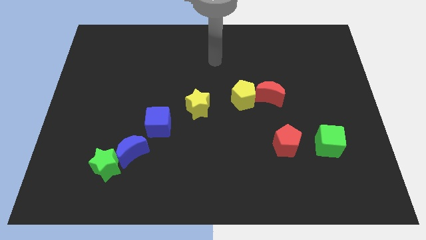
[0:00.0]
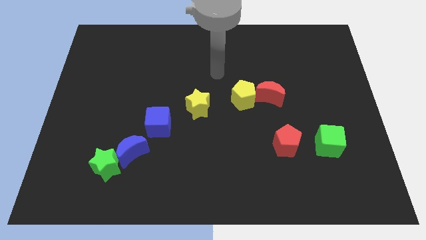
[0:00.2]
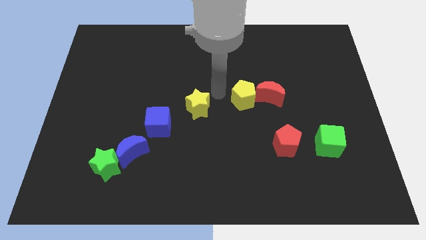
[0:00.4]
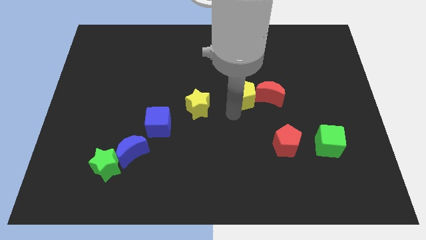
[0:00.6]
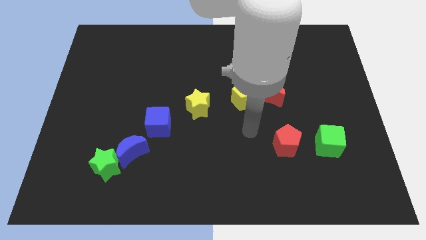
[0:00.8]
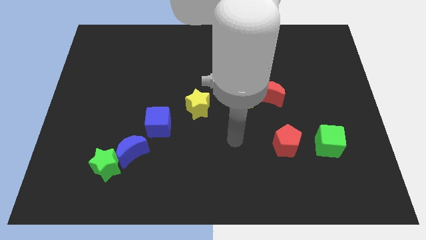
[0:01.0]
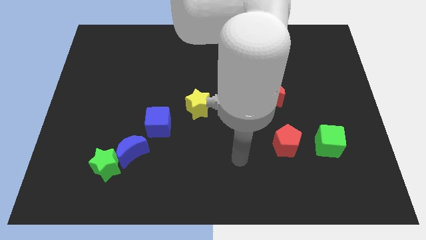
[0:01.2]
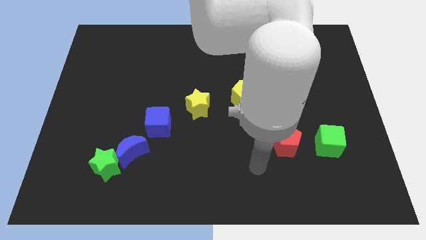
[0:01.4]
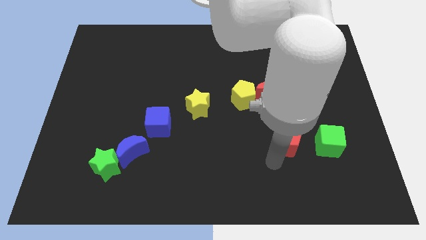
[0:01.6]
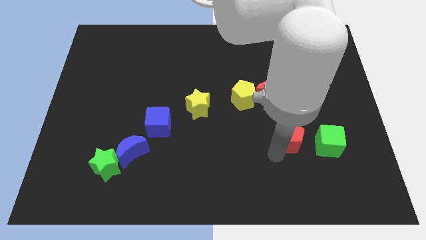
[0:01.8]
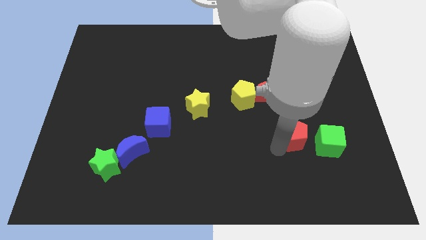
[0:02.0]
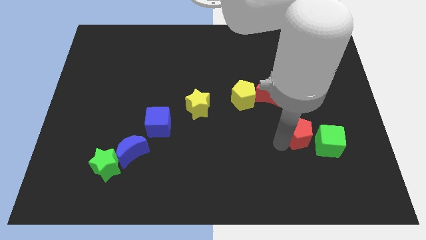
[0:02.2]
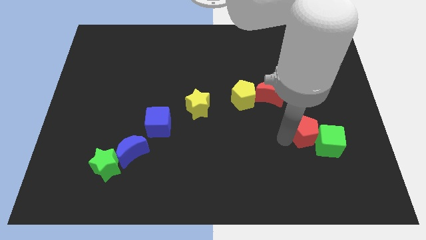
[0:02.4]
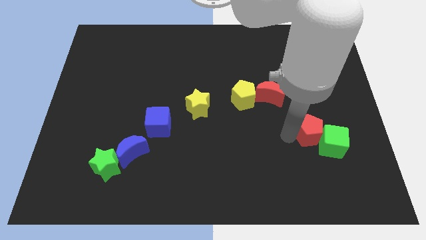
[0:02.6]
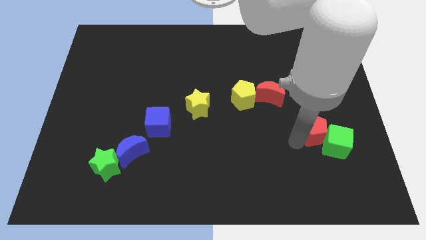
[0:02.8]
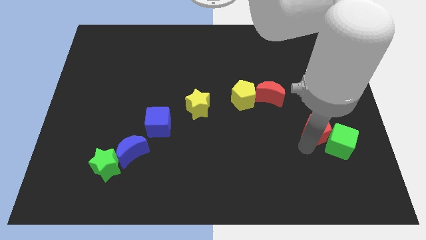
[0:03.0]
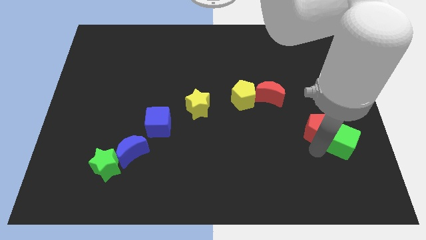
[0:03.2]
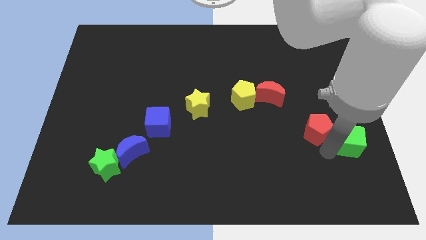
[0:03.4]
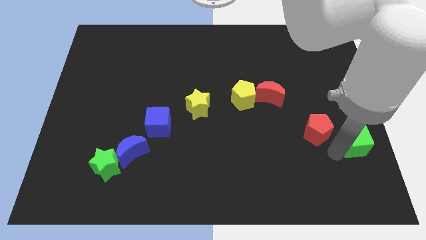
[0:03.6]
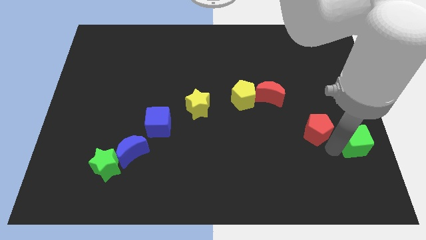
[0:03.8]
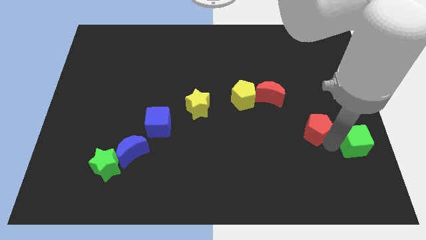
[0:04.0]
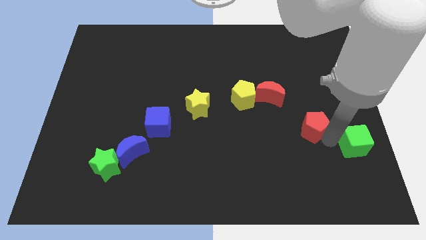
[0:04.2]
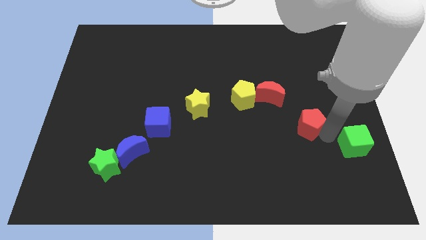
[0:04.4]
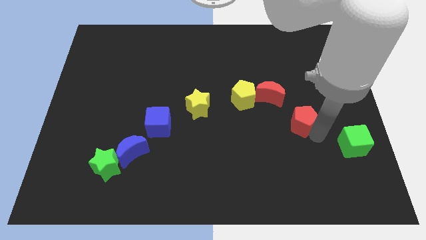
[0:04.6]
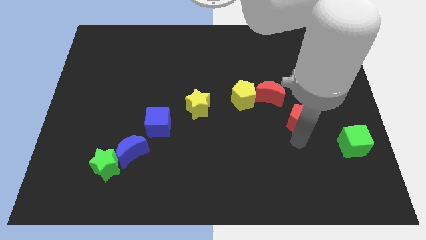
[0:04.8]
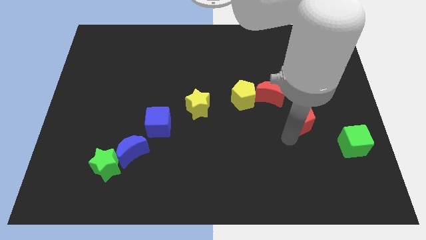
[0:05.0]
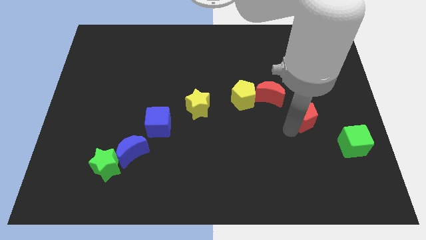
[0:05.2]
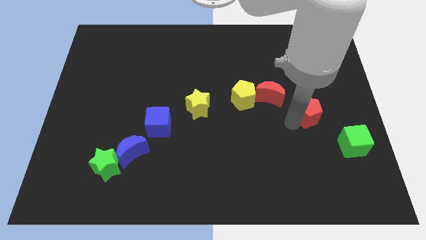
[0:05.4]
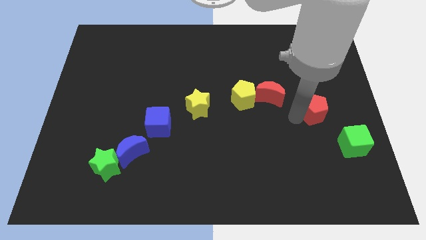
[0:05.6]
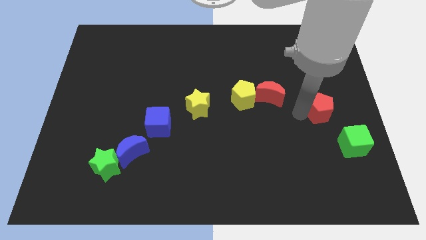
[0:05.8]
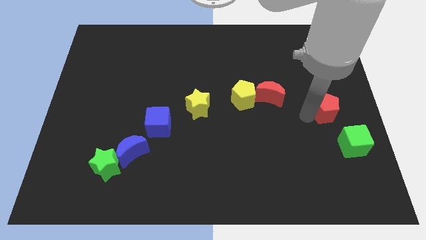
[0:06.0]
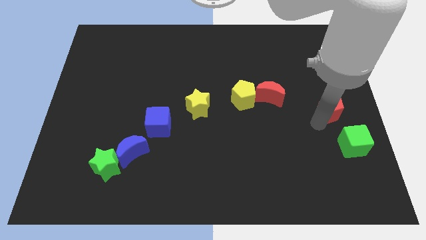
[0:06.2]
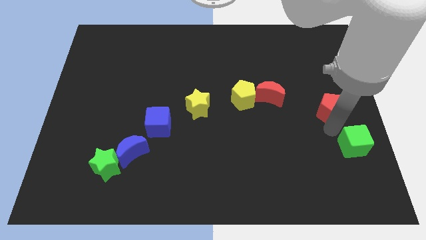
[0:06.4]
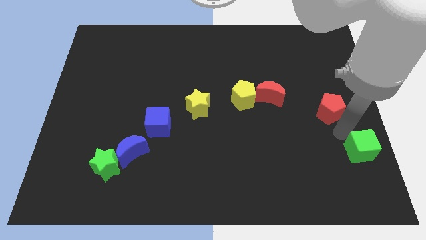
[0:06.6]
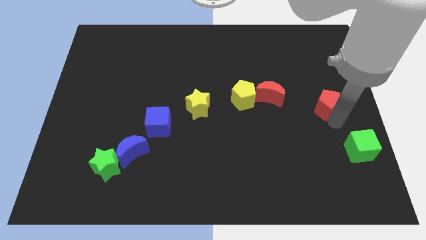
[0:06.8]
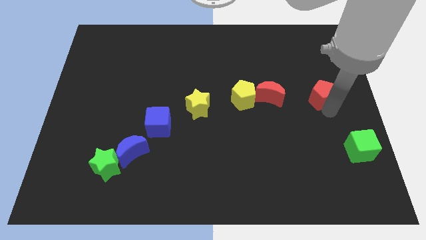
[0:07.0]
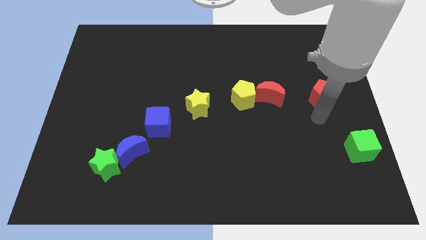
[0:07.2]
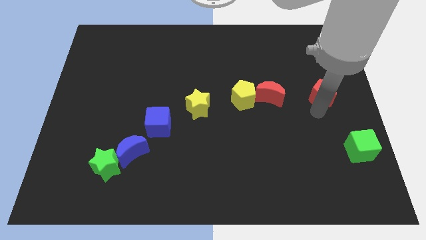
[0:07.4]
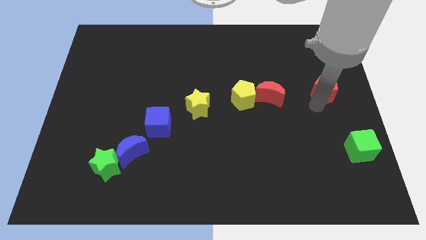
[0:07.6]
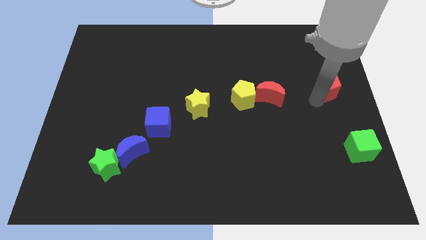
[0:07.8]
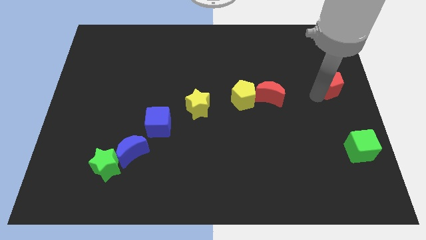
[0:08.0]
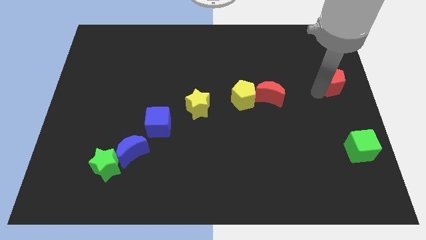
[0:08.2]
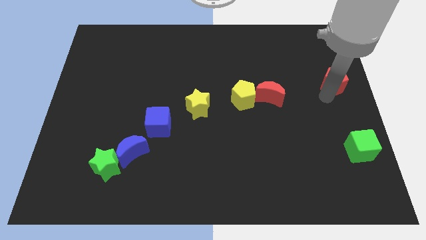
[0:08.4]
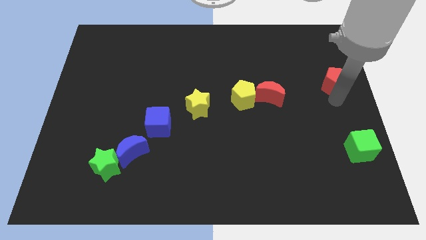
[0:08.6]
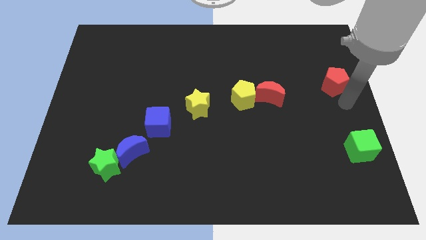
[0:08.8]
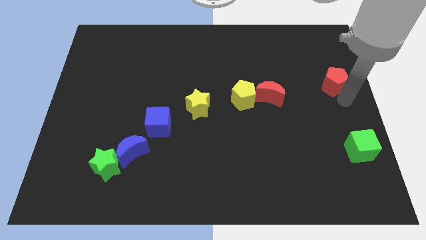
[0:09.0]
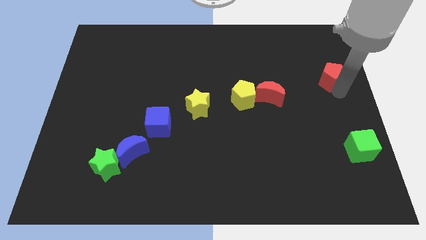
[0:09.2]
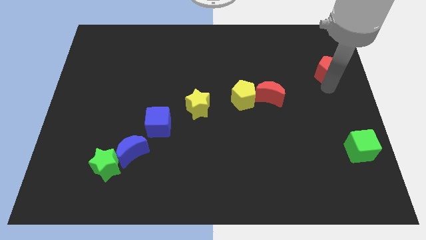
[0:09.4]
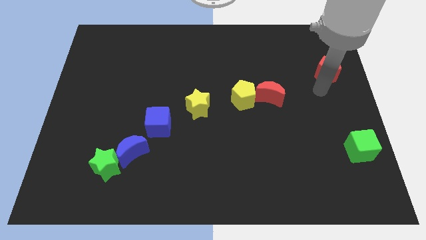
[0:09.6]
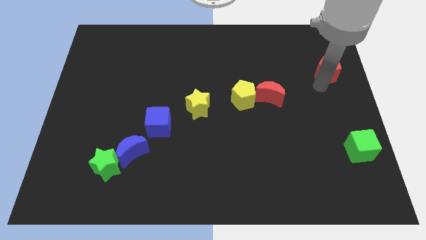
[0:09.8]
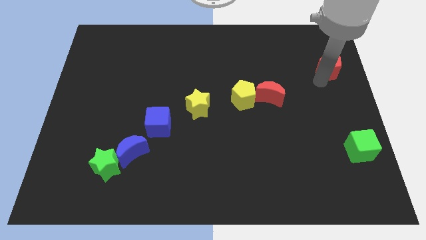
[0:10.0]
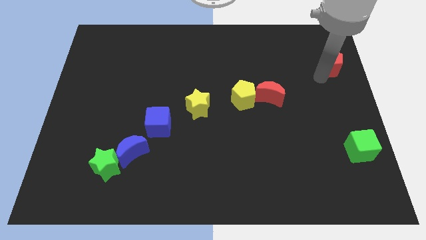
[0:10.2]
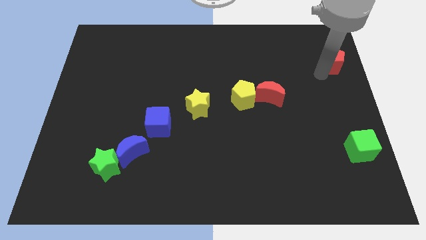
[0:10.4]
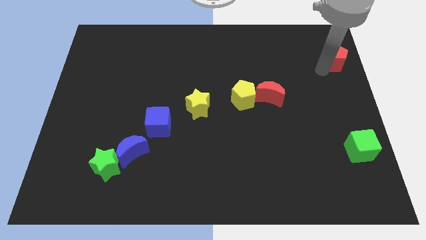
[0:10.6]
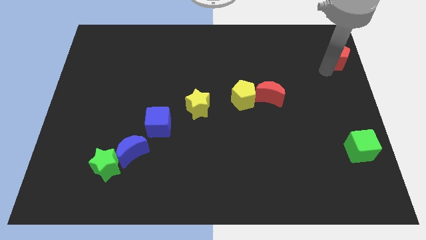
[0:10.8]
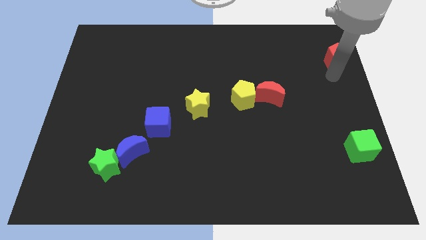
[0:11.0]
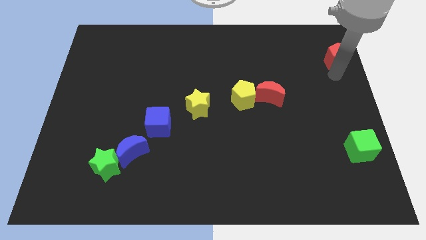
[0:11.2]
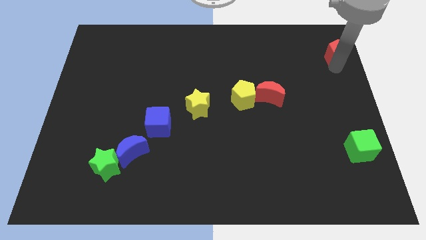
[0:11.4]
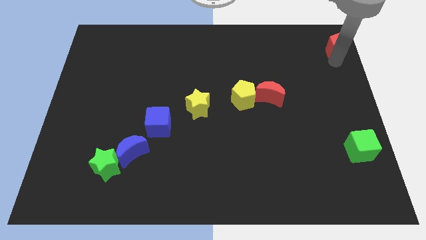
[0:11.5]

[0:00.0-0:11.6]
slide the red pentagon to the upper right corner
